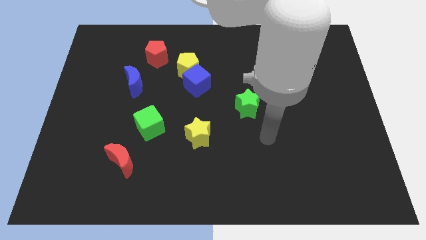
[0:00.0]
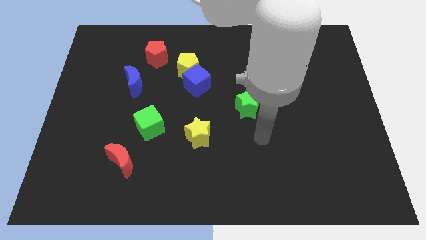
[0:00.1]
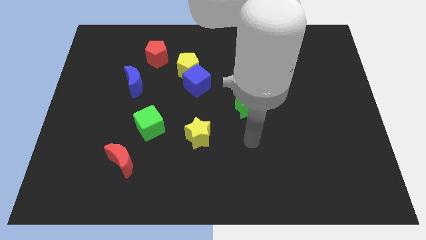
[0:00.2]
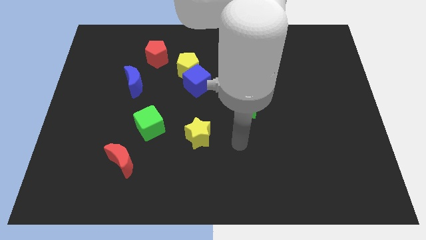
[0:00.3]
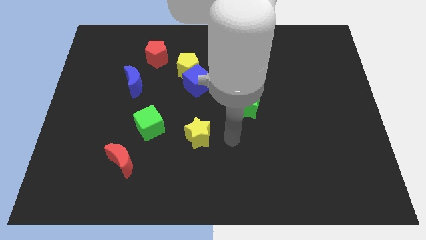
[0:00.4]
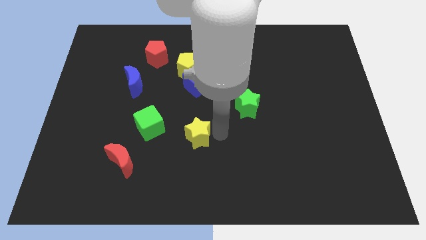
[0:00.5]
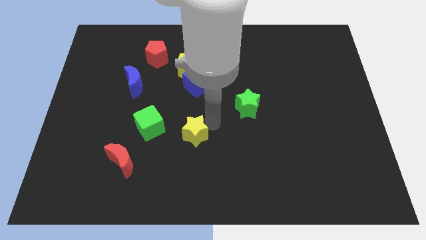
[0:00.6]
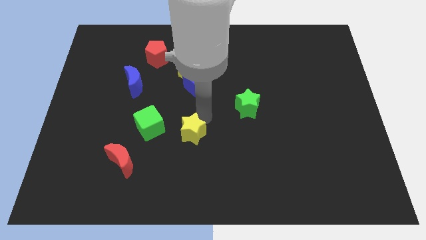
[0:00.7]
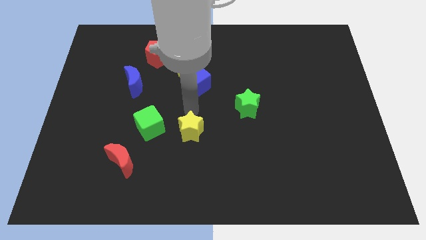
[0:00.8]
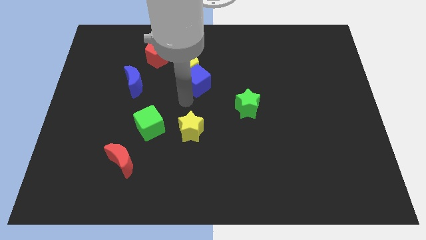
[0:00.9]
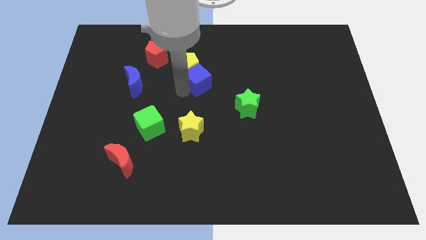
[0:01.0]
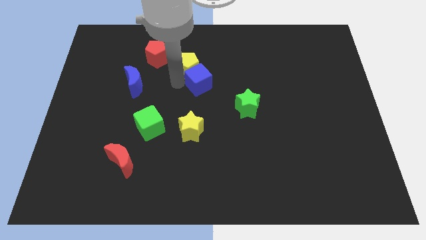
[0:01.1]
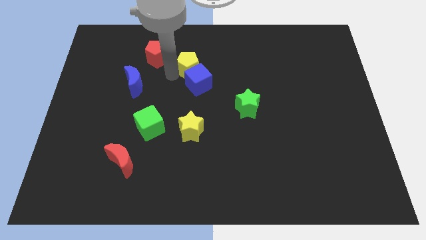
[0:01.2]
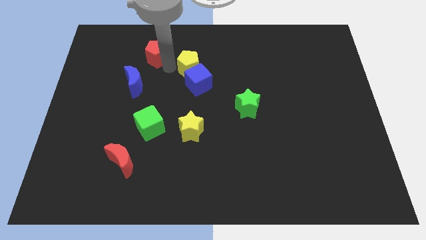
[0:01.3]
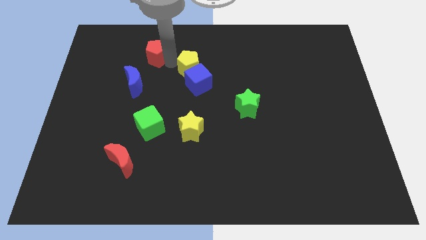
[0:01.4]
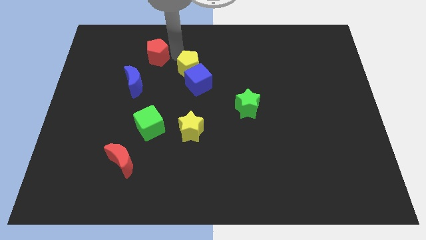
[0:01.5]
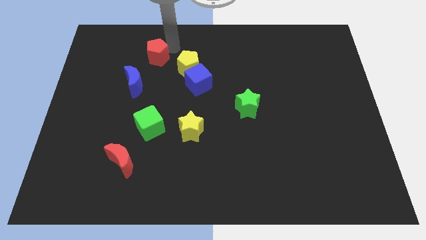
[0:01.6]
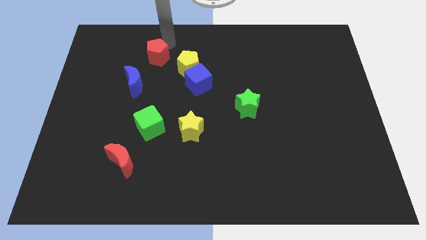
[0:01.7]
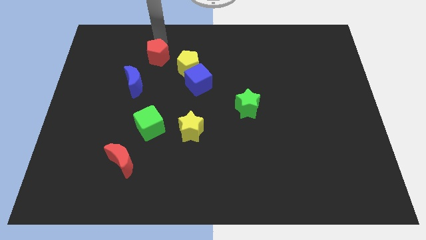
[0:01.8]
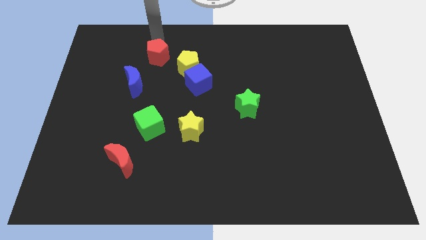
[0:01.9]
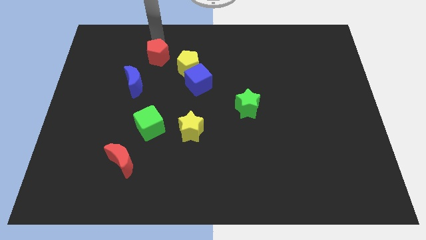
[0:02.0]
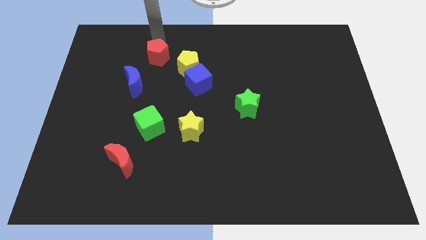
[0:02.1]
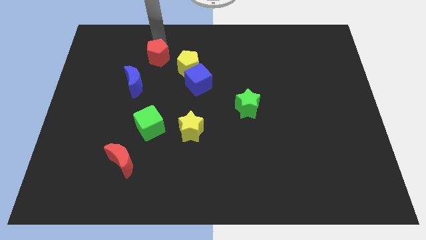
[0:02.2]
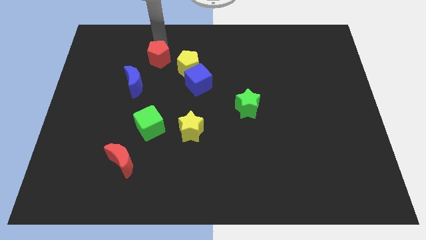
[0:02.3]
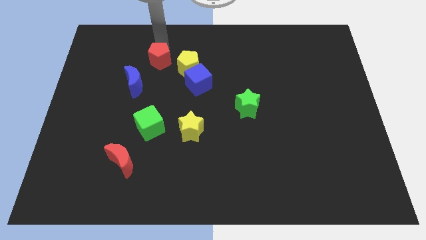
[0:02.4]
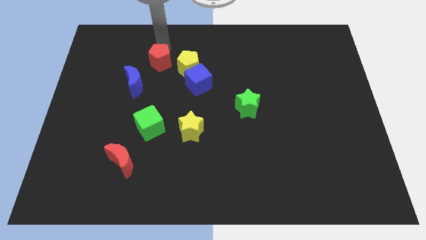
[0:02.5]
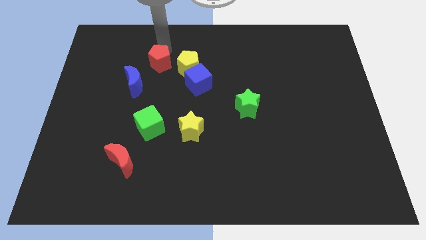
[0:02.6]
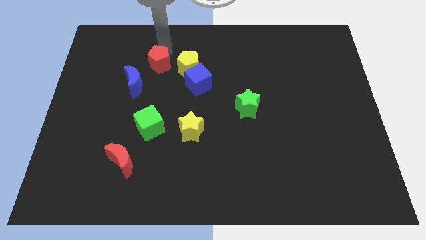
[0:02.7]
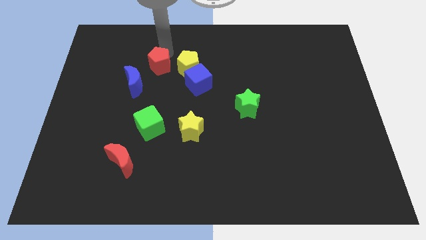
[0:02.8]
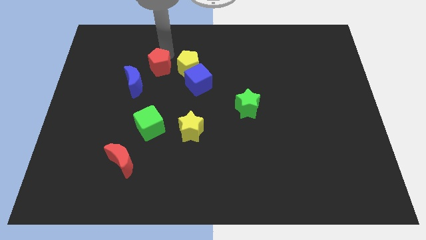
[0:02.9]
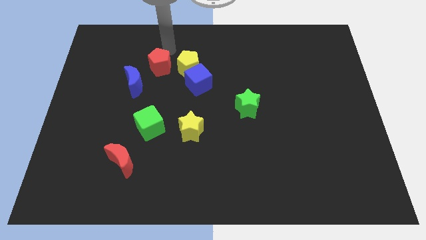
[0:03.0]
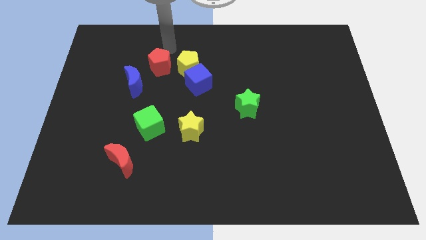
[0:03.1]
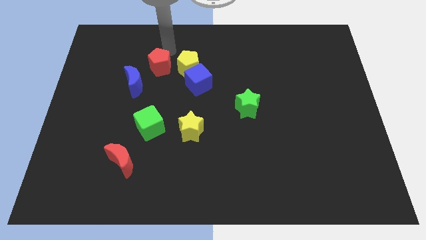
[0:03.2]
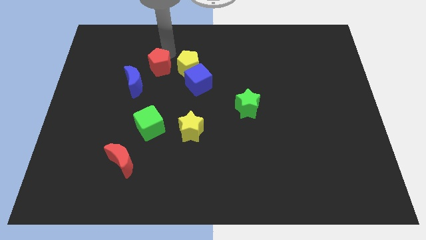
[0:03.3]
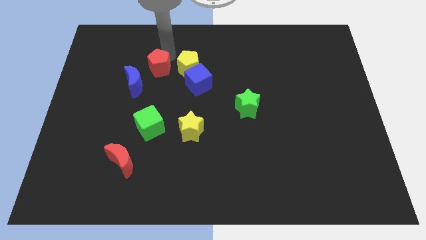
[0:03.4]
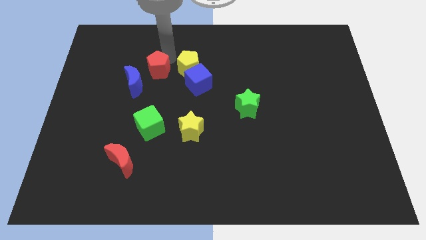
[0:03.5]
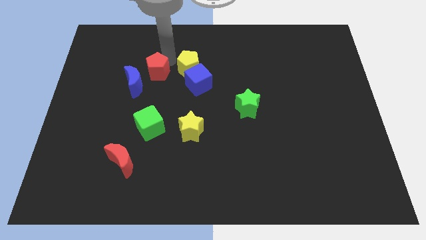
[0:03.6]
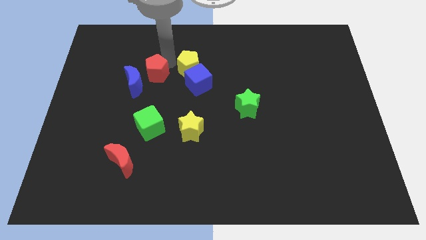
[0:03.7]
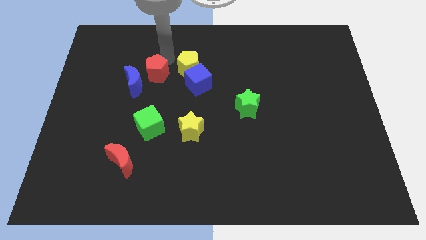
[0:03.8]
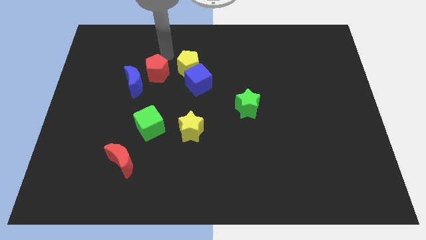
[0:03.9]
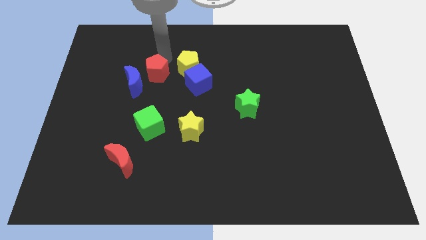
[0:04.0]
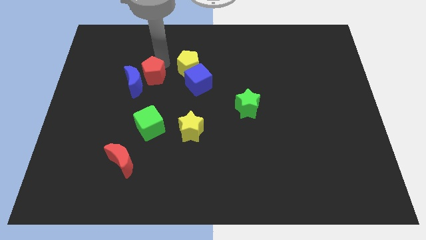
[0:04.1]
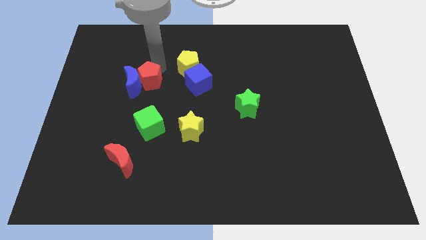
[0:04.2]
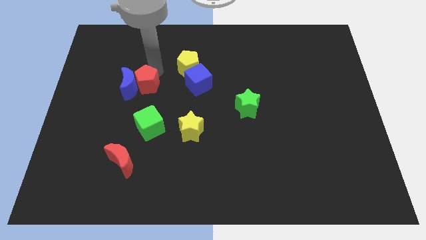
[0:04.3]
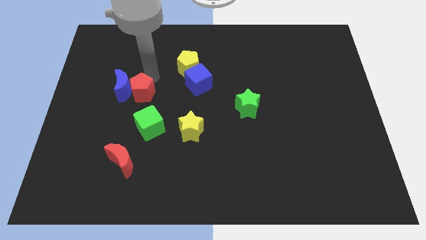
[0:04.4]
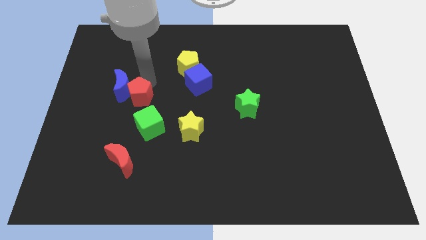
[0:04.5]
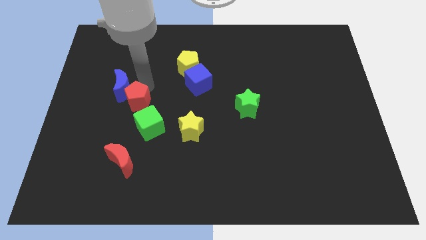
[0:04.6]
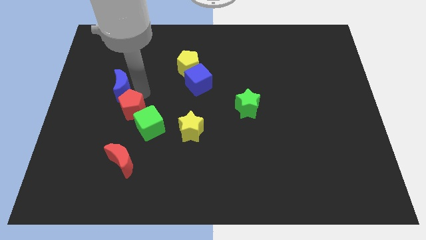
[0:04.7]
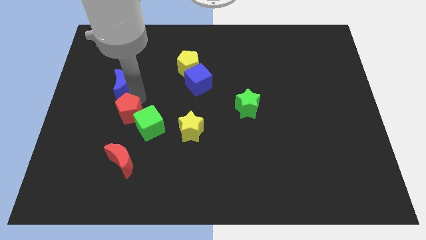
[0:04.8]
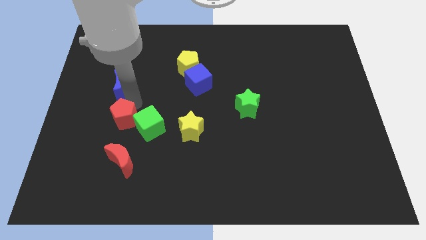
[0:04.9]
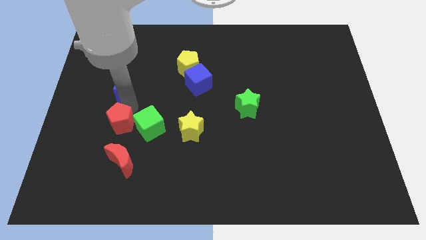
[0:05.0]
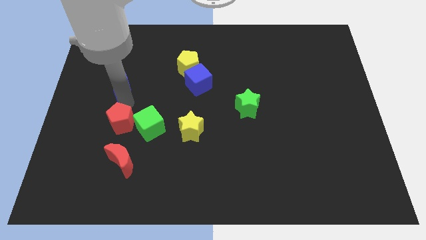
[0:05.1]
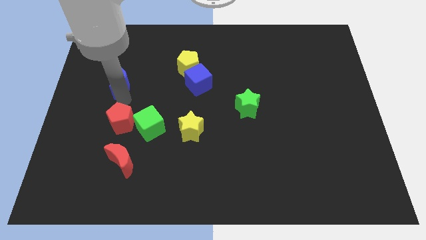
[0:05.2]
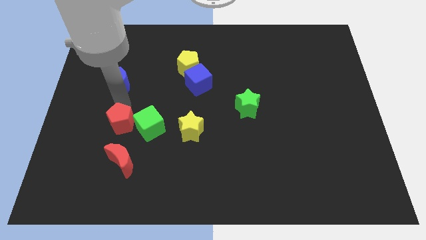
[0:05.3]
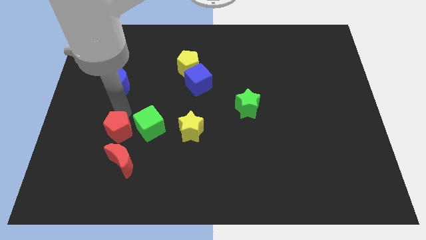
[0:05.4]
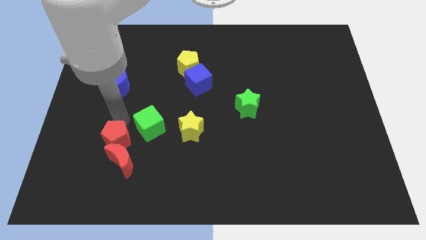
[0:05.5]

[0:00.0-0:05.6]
push the red pentagon to the red moon

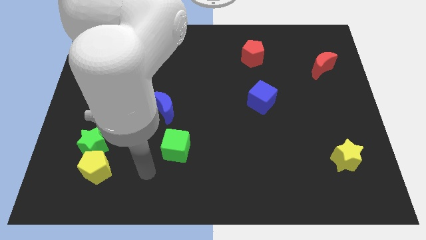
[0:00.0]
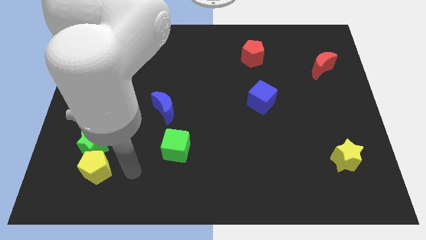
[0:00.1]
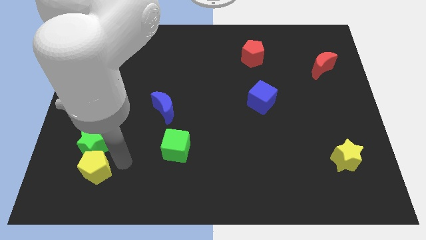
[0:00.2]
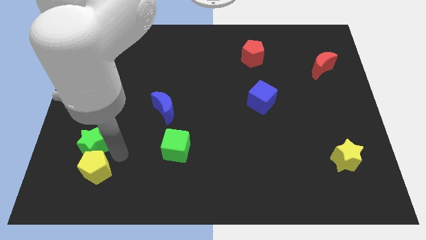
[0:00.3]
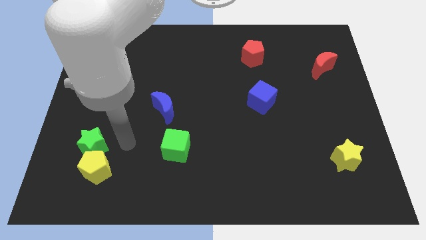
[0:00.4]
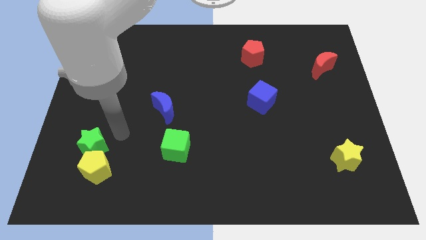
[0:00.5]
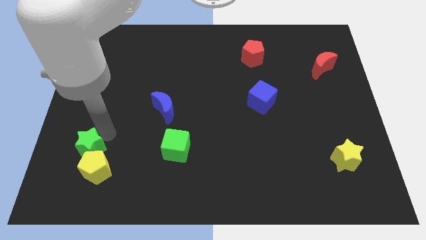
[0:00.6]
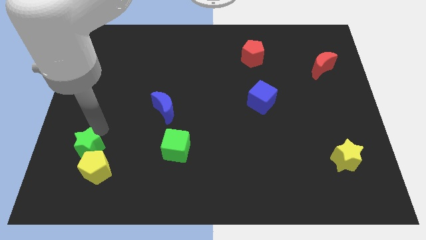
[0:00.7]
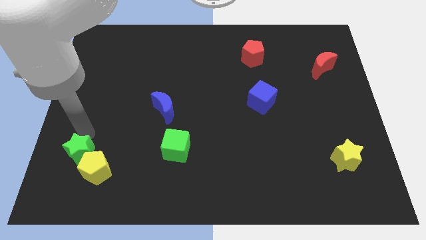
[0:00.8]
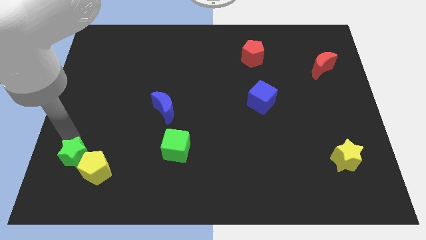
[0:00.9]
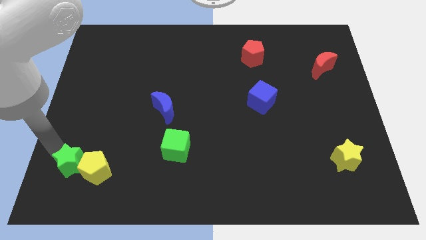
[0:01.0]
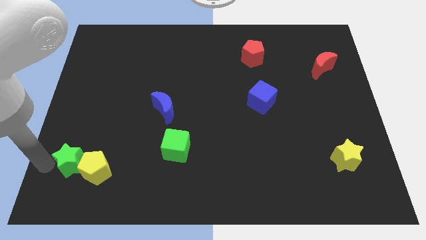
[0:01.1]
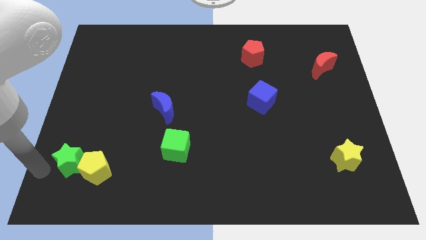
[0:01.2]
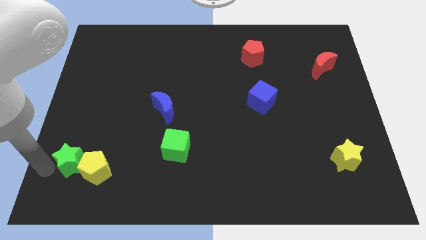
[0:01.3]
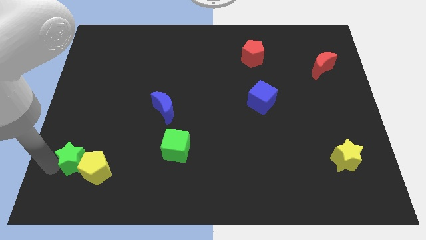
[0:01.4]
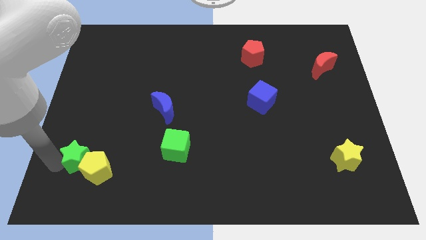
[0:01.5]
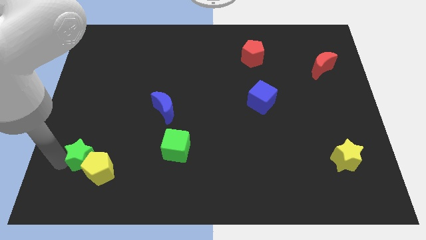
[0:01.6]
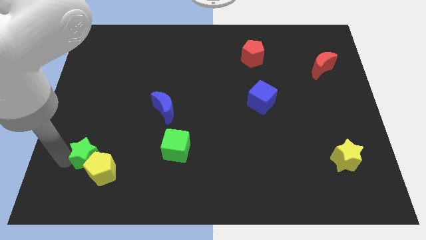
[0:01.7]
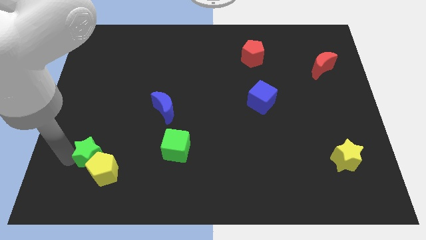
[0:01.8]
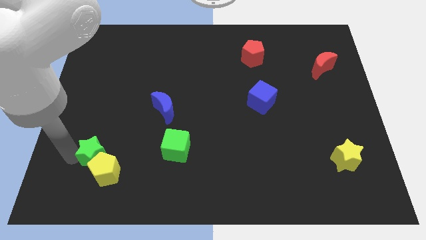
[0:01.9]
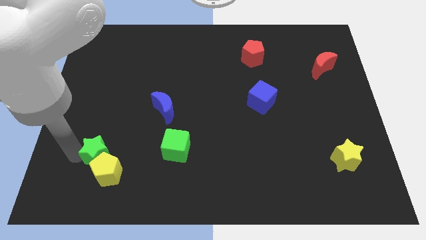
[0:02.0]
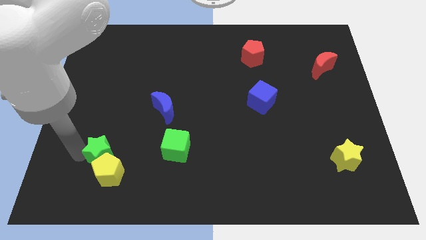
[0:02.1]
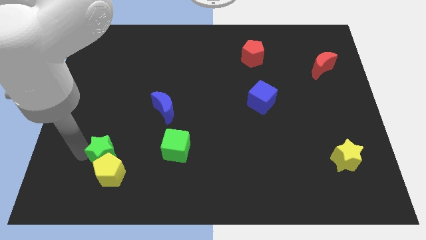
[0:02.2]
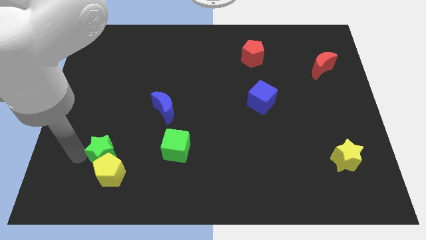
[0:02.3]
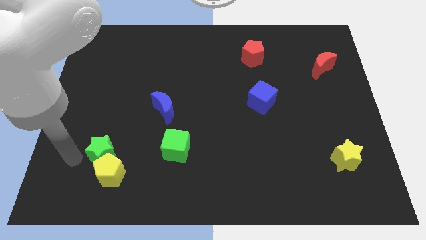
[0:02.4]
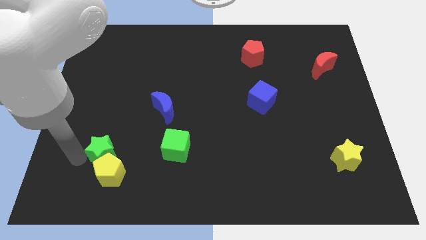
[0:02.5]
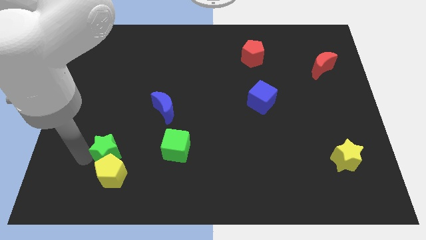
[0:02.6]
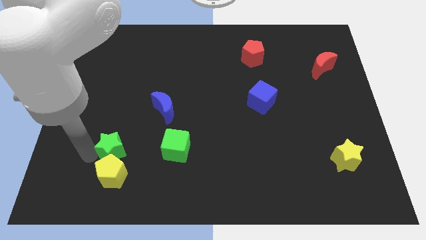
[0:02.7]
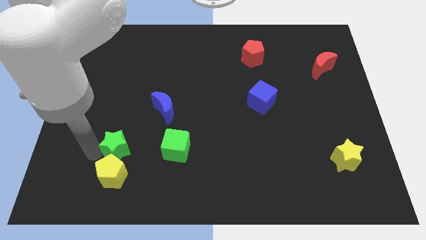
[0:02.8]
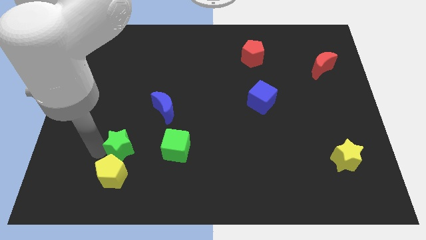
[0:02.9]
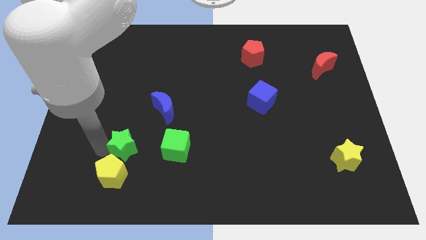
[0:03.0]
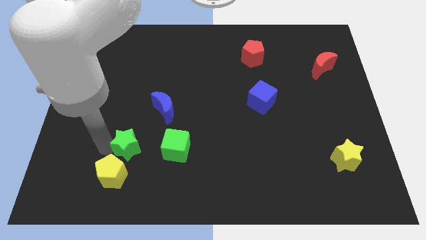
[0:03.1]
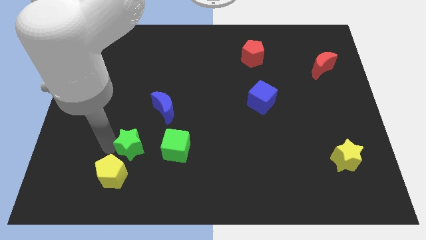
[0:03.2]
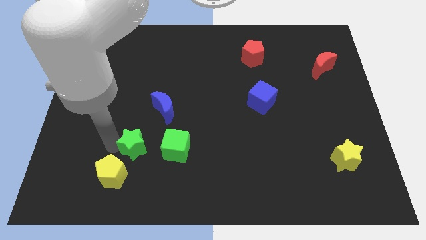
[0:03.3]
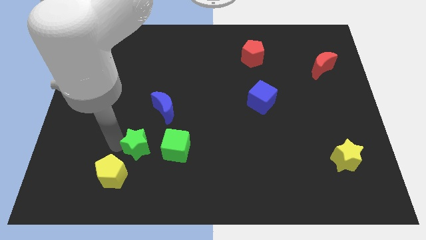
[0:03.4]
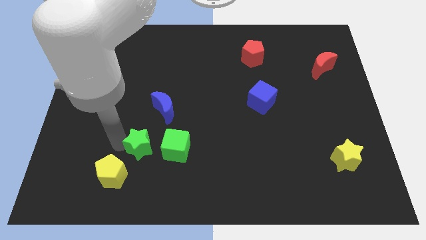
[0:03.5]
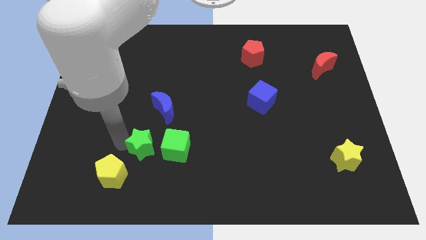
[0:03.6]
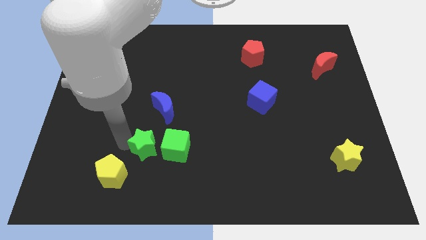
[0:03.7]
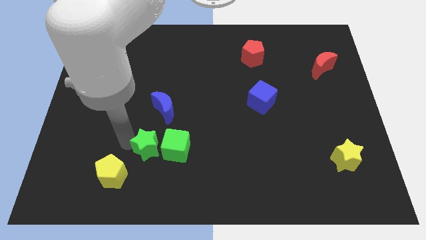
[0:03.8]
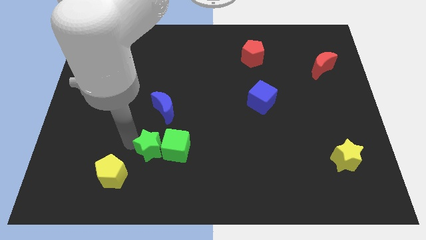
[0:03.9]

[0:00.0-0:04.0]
move the green star next to the green cube
